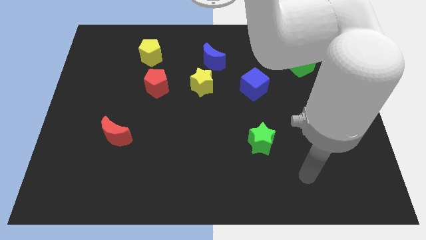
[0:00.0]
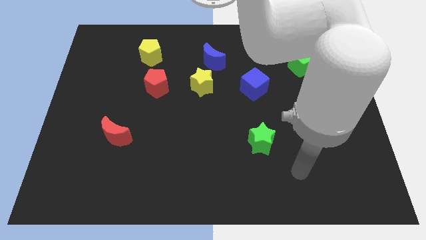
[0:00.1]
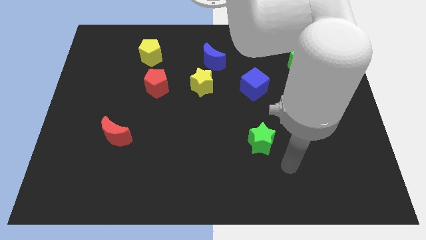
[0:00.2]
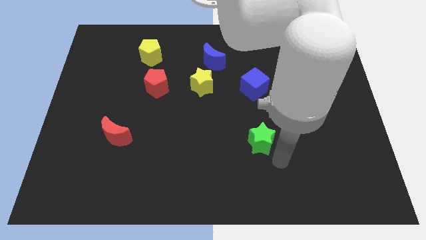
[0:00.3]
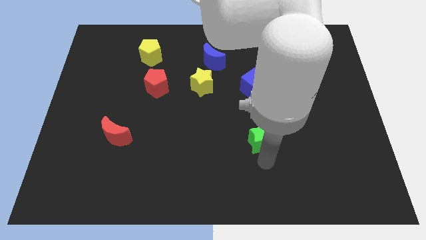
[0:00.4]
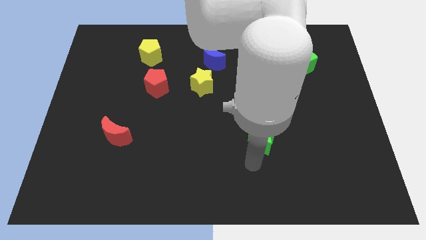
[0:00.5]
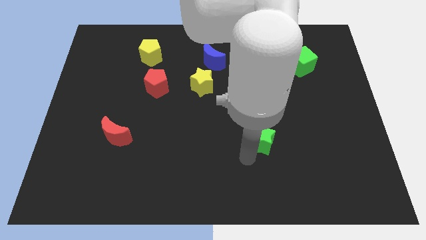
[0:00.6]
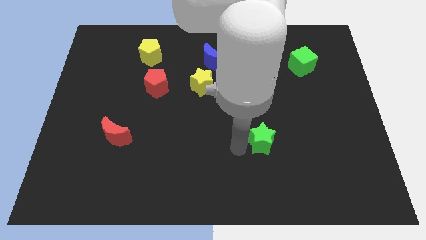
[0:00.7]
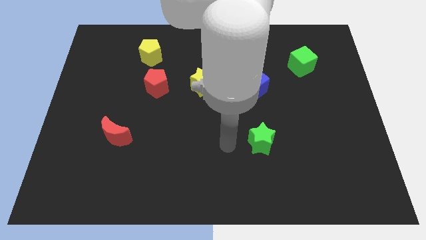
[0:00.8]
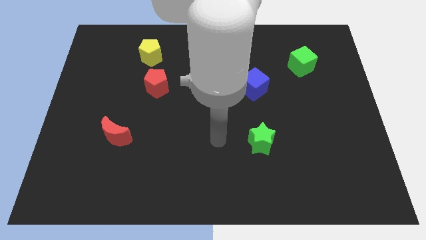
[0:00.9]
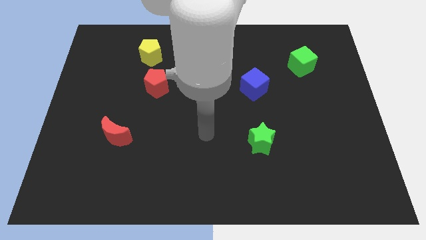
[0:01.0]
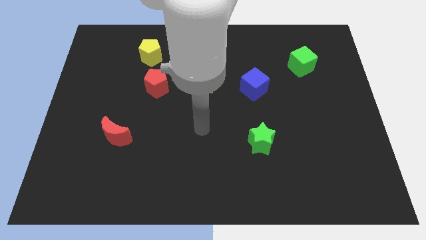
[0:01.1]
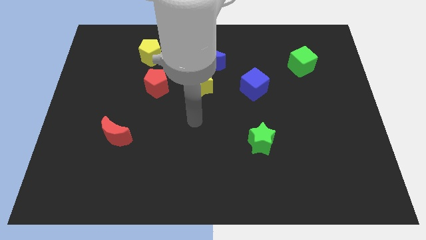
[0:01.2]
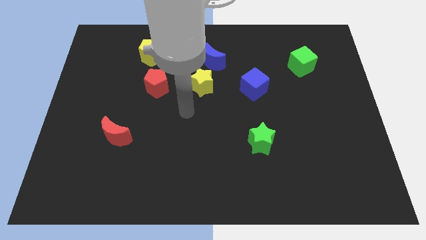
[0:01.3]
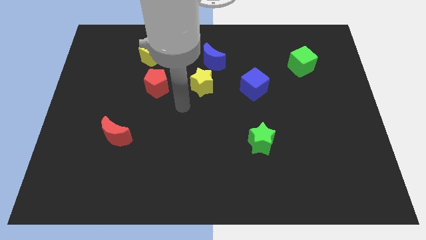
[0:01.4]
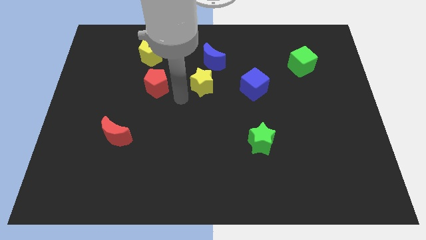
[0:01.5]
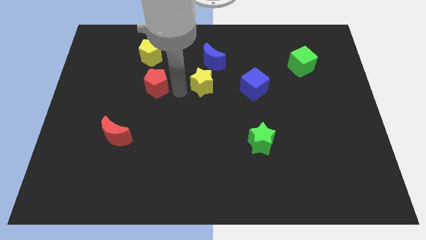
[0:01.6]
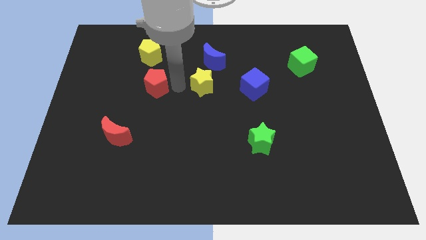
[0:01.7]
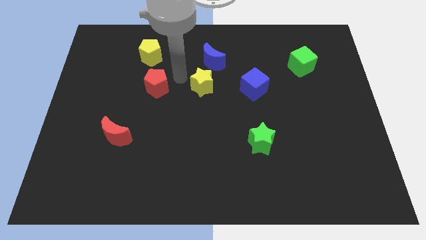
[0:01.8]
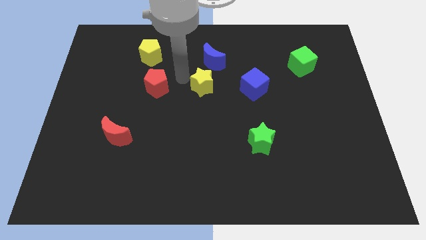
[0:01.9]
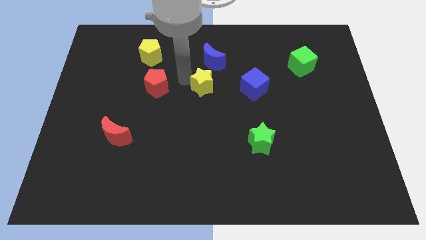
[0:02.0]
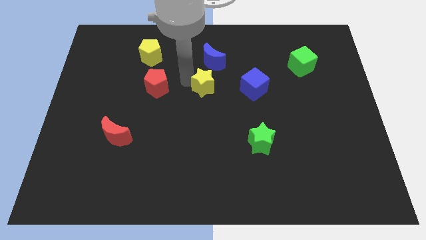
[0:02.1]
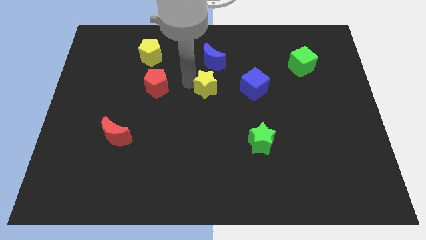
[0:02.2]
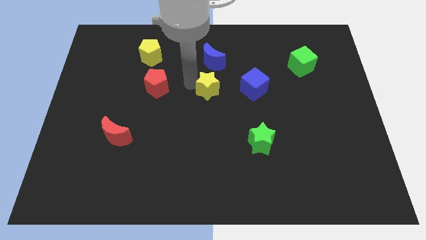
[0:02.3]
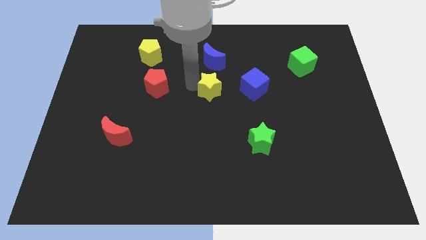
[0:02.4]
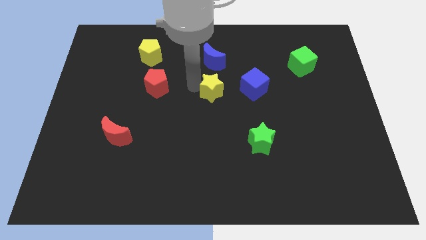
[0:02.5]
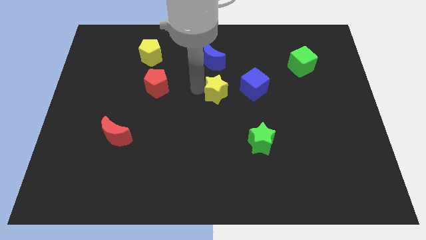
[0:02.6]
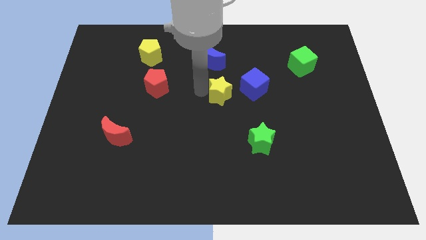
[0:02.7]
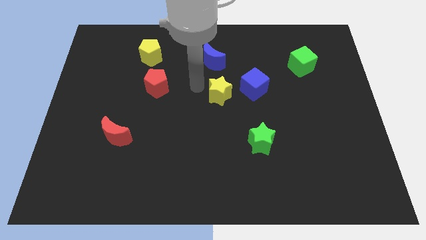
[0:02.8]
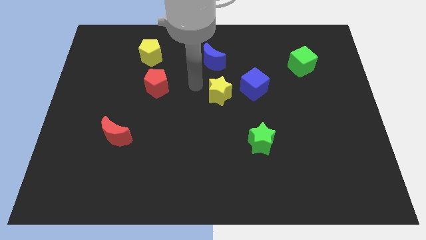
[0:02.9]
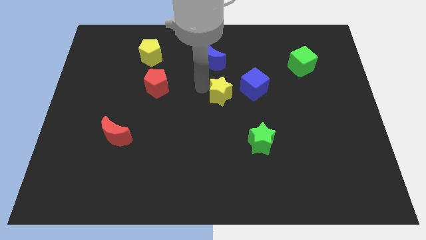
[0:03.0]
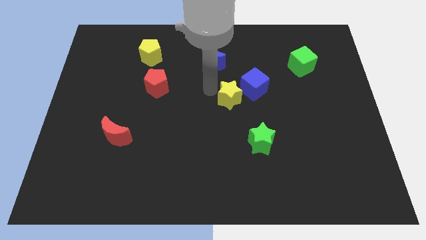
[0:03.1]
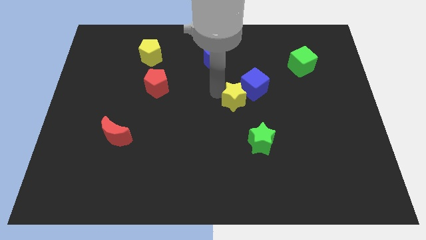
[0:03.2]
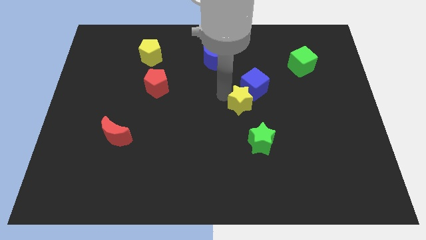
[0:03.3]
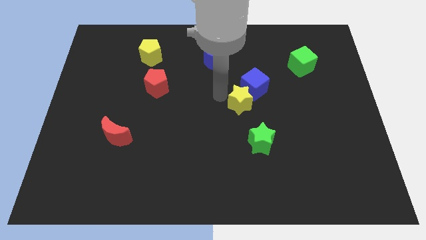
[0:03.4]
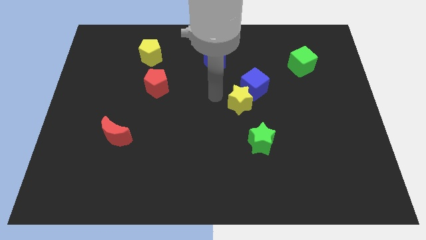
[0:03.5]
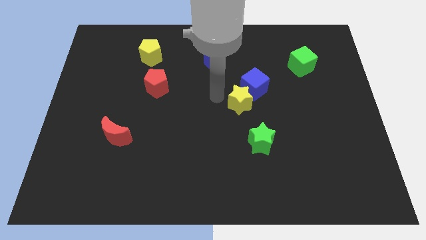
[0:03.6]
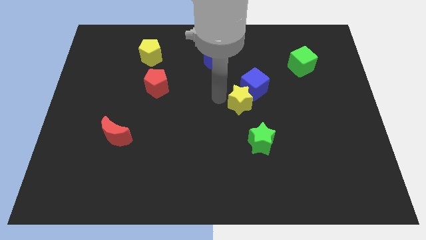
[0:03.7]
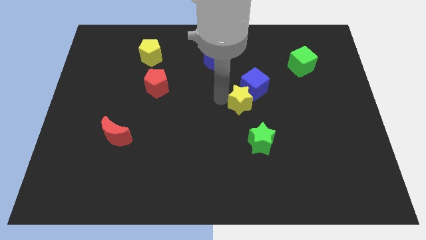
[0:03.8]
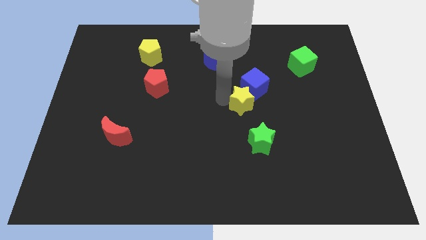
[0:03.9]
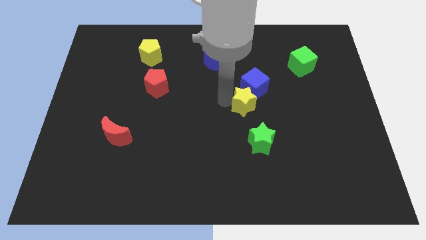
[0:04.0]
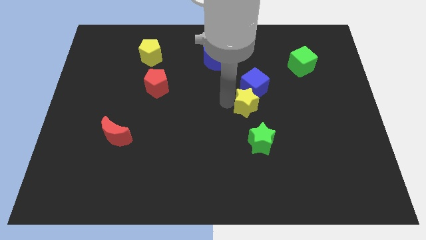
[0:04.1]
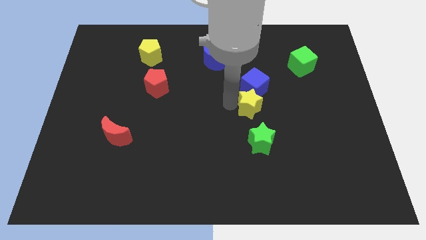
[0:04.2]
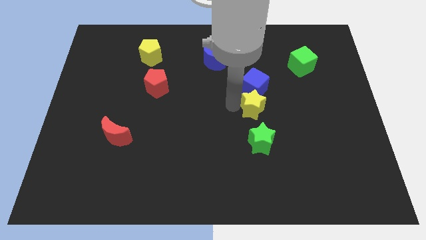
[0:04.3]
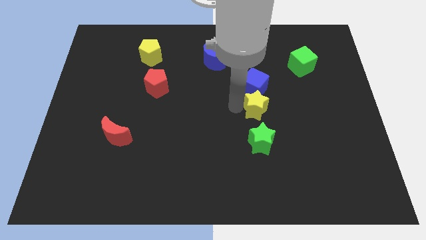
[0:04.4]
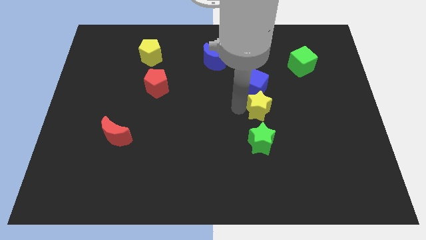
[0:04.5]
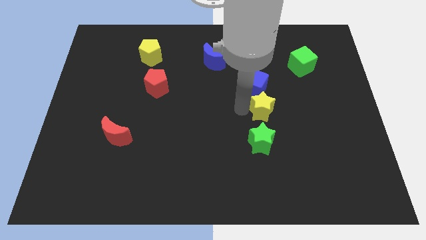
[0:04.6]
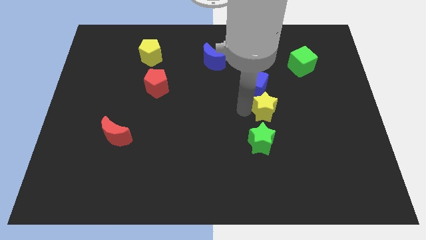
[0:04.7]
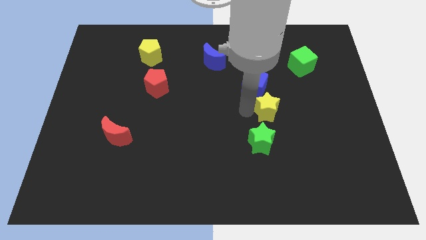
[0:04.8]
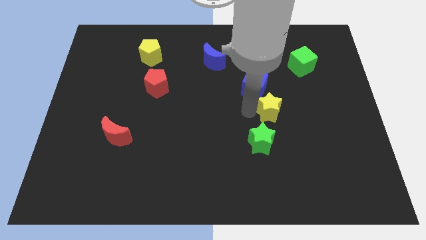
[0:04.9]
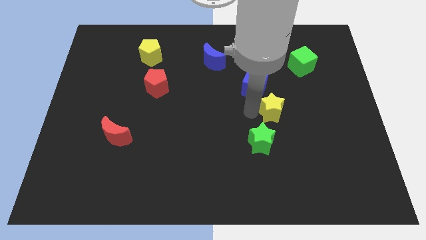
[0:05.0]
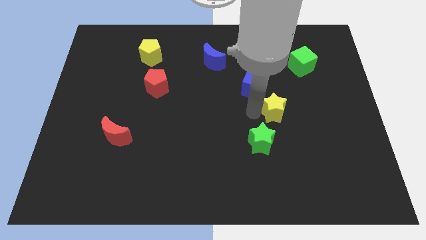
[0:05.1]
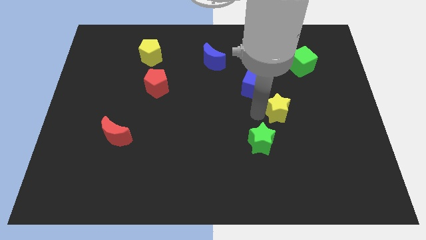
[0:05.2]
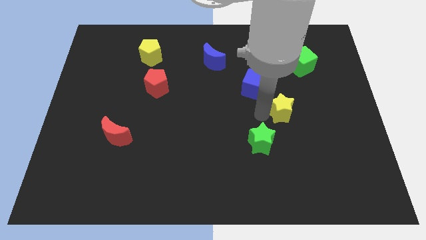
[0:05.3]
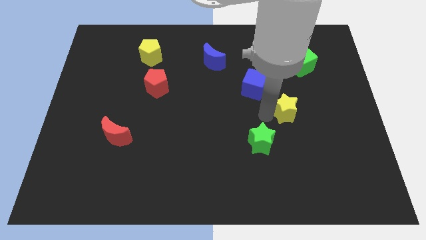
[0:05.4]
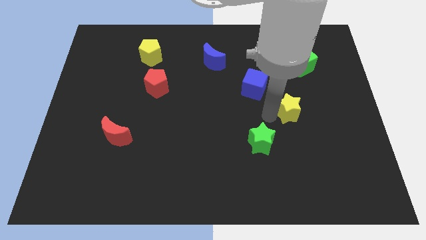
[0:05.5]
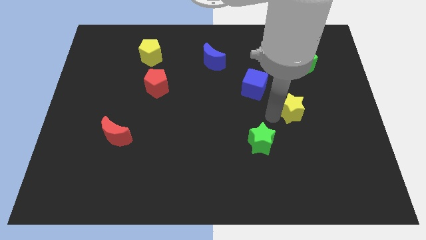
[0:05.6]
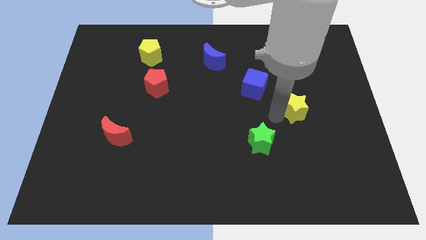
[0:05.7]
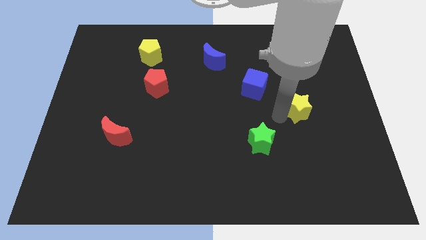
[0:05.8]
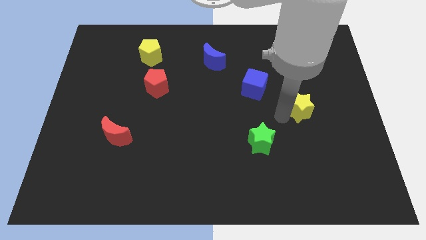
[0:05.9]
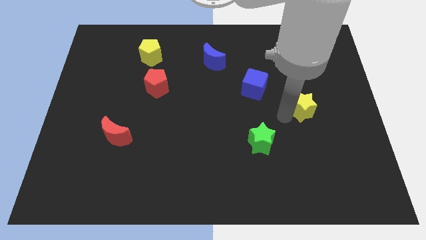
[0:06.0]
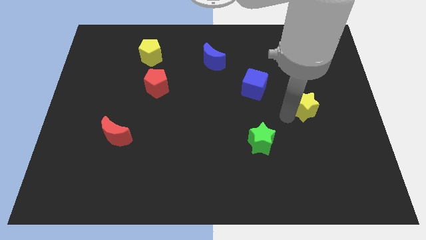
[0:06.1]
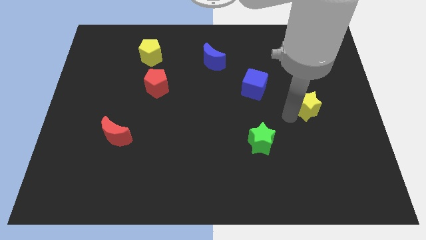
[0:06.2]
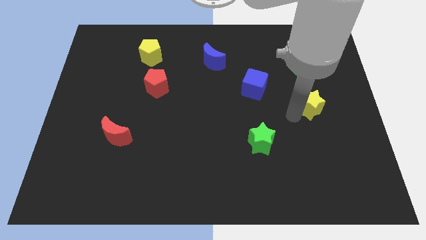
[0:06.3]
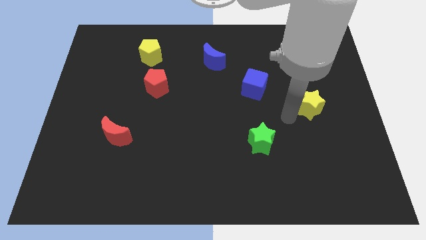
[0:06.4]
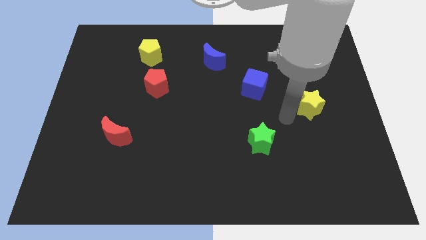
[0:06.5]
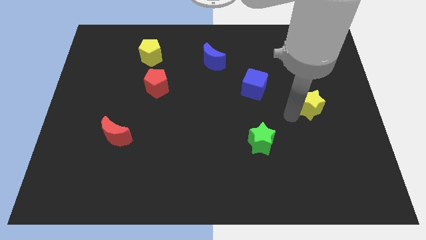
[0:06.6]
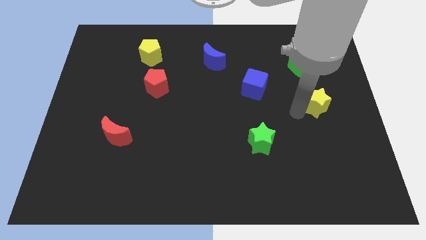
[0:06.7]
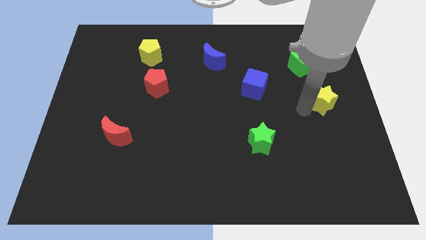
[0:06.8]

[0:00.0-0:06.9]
put the yellow star to the right side of the board

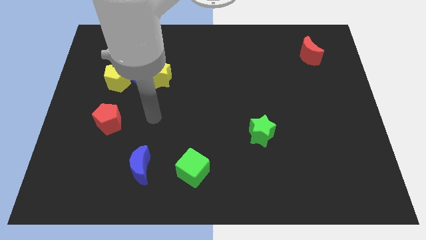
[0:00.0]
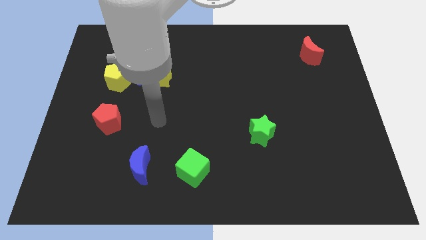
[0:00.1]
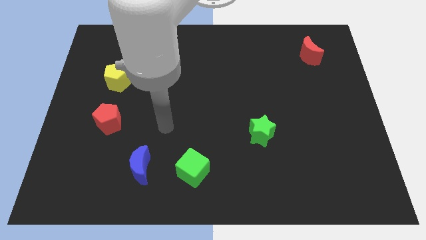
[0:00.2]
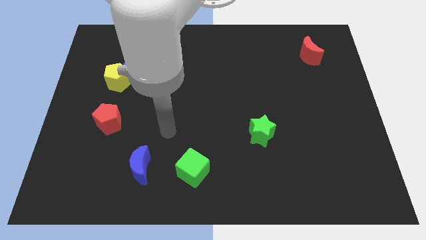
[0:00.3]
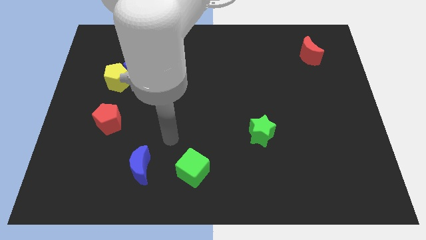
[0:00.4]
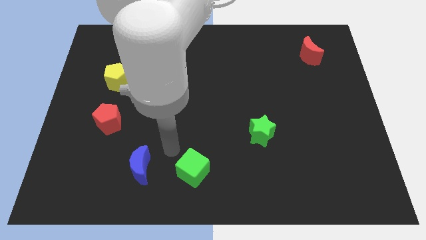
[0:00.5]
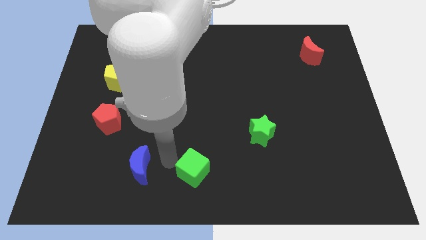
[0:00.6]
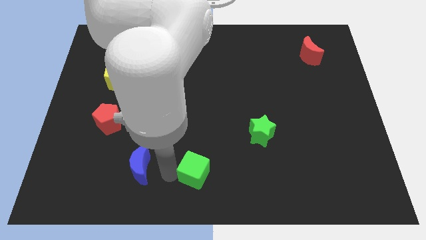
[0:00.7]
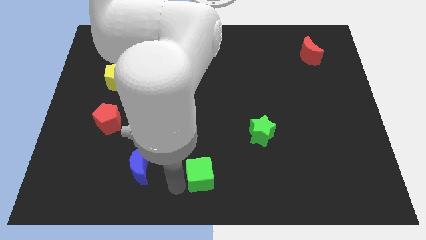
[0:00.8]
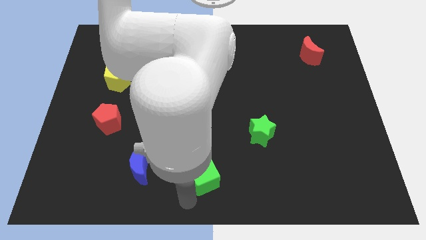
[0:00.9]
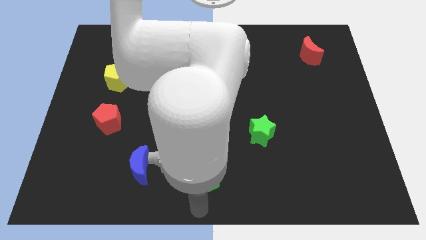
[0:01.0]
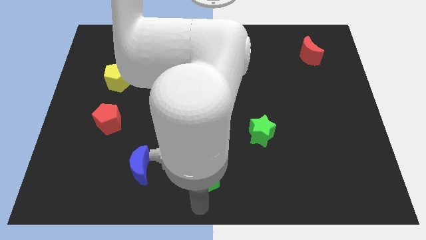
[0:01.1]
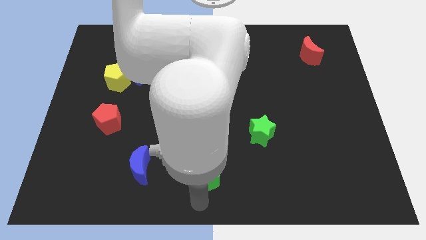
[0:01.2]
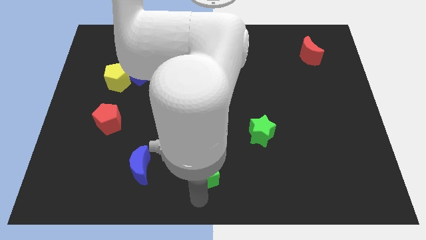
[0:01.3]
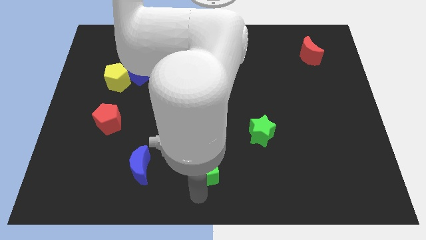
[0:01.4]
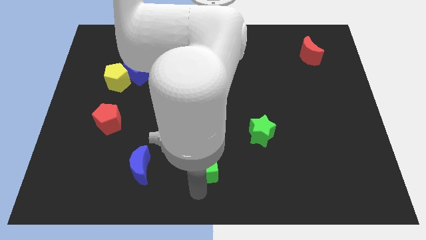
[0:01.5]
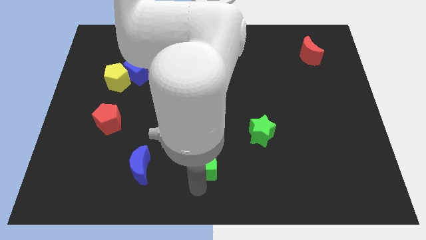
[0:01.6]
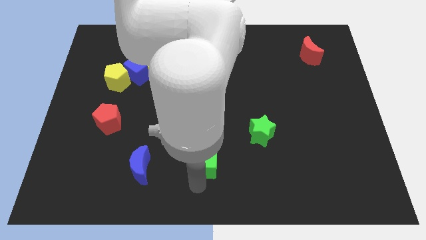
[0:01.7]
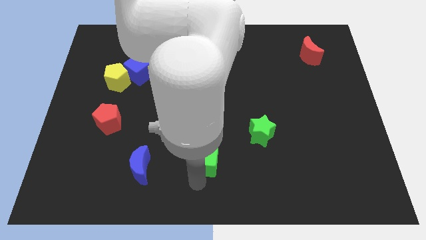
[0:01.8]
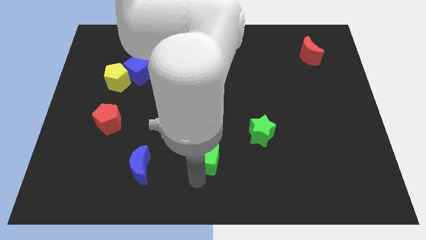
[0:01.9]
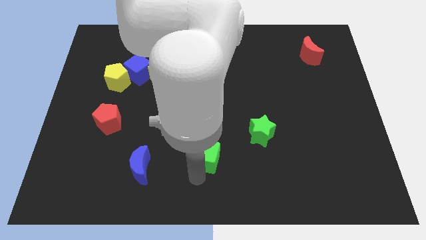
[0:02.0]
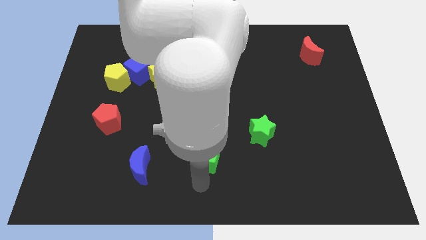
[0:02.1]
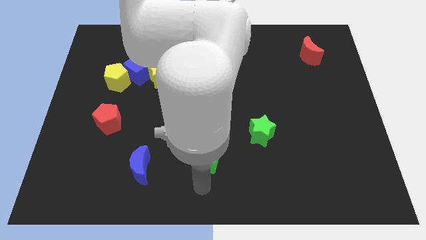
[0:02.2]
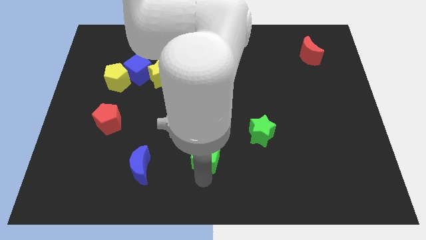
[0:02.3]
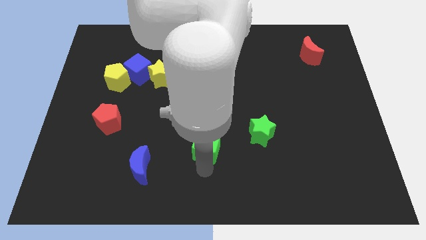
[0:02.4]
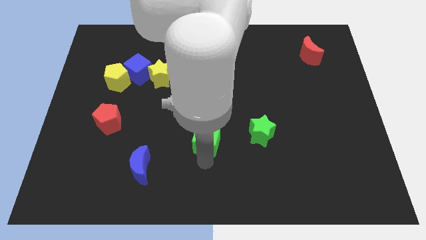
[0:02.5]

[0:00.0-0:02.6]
put the green cube to the center of the board
